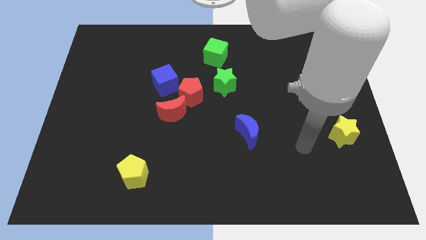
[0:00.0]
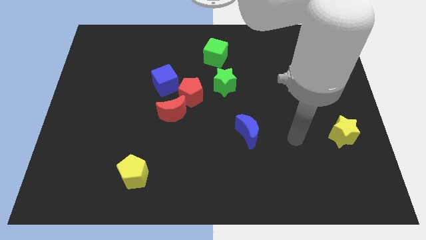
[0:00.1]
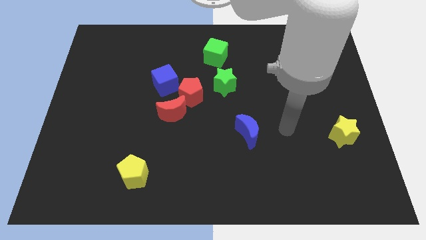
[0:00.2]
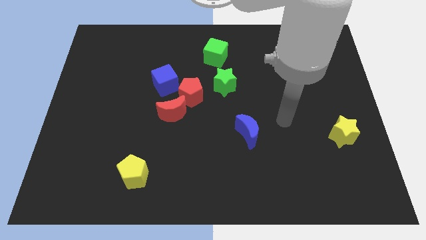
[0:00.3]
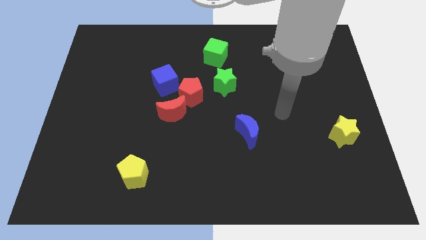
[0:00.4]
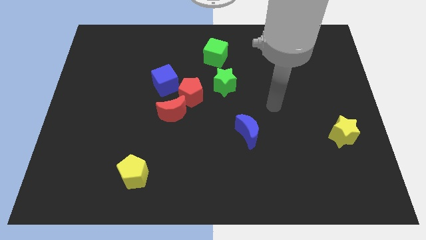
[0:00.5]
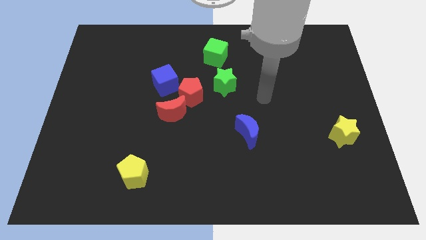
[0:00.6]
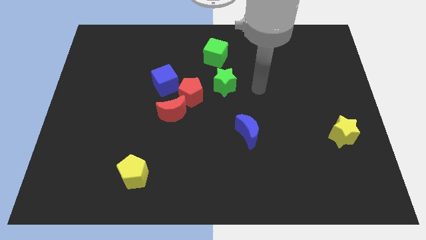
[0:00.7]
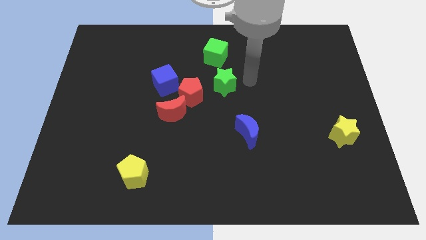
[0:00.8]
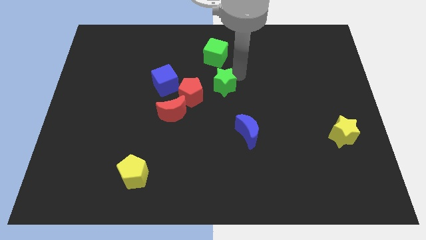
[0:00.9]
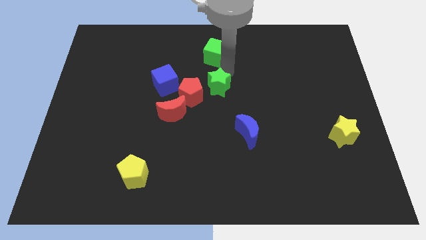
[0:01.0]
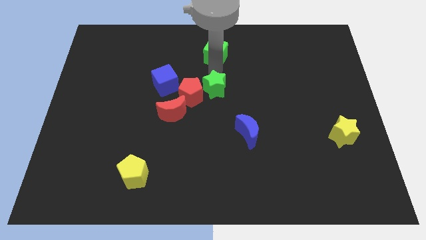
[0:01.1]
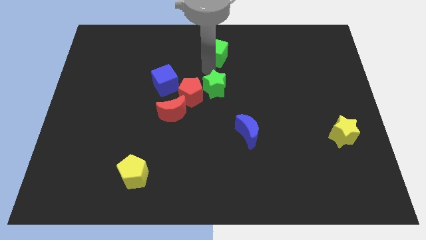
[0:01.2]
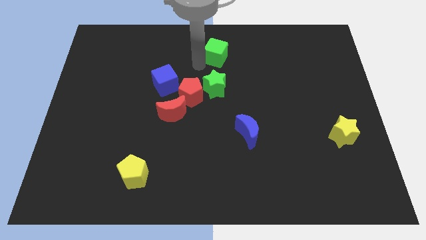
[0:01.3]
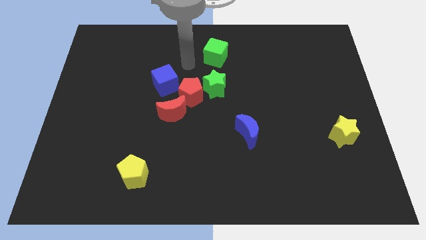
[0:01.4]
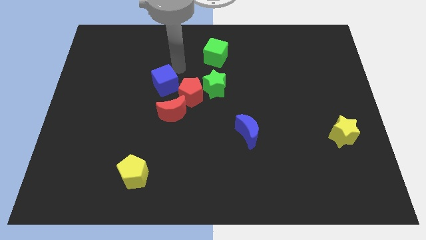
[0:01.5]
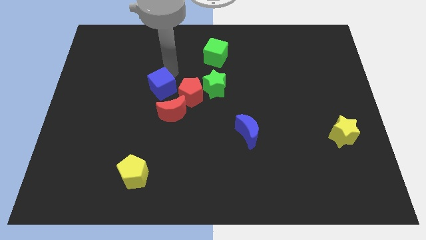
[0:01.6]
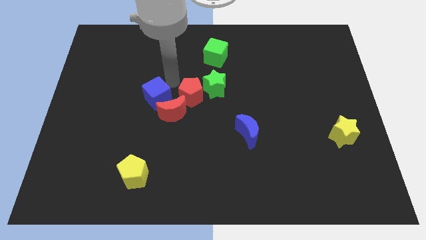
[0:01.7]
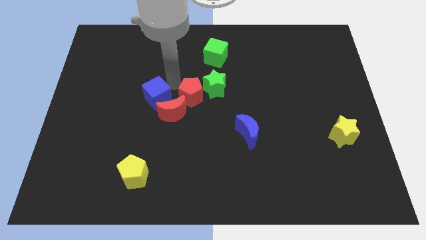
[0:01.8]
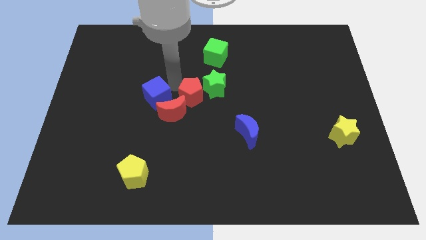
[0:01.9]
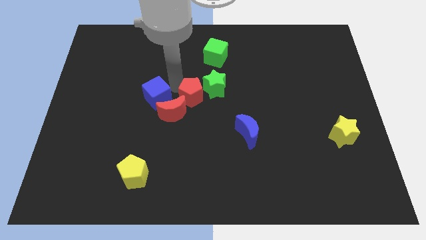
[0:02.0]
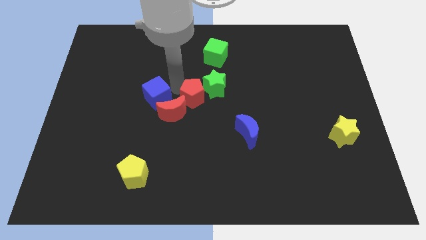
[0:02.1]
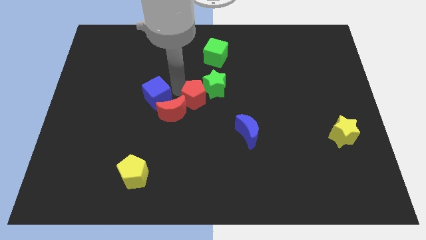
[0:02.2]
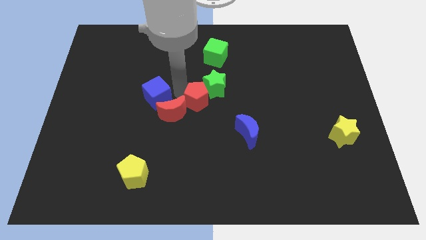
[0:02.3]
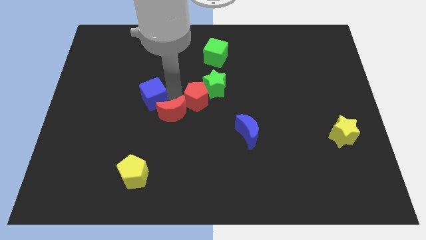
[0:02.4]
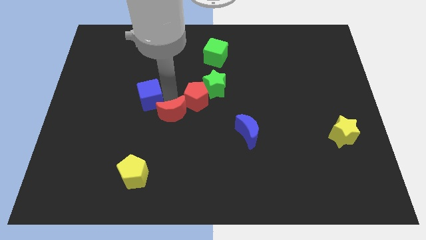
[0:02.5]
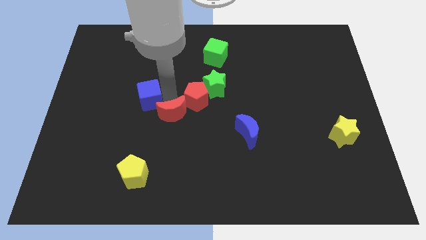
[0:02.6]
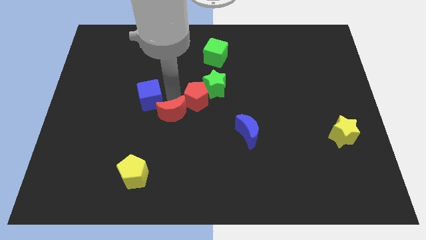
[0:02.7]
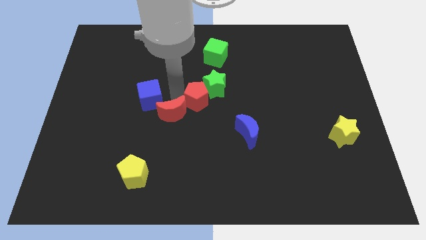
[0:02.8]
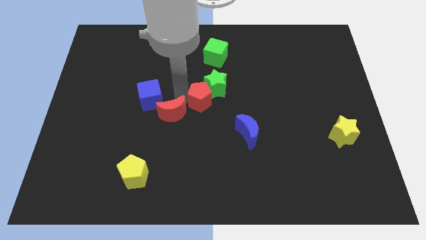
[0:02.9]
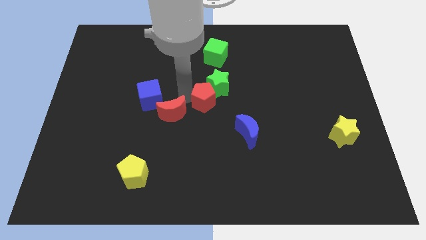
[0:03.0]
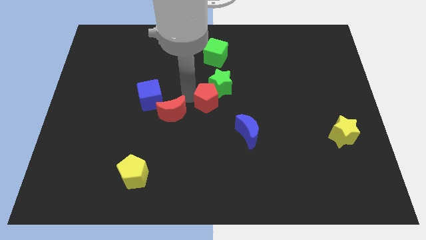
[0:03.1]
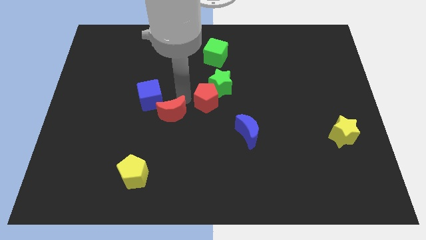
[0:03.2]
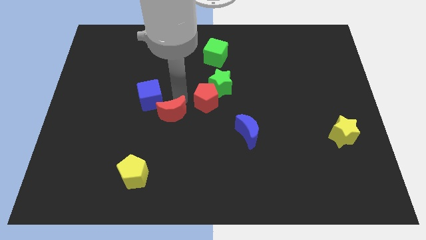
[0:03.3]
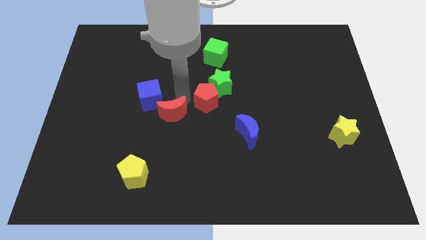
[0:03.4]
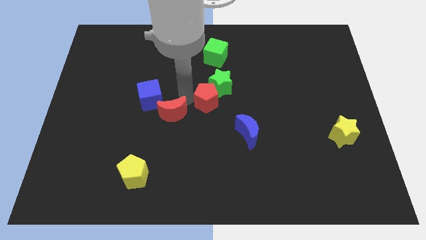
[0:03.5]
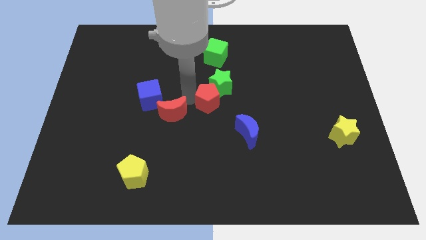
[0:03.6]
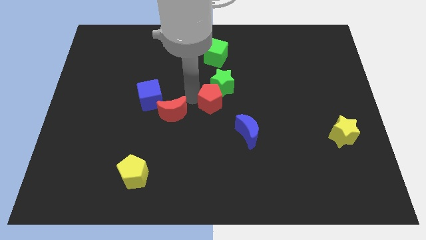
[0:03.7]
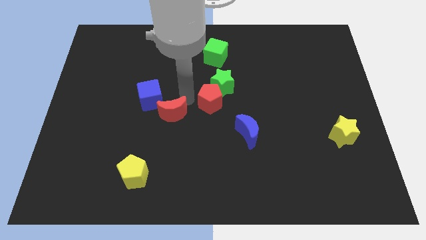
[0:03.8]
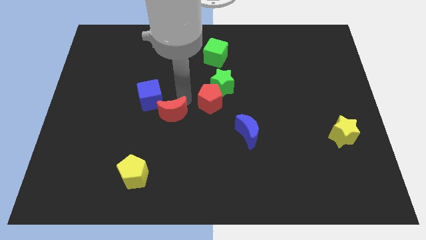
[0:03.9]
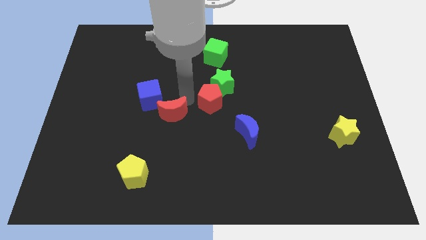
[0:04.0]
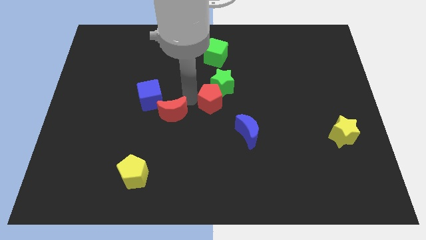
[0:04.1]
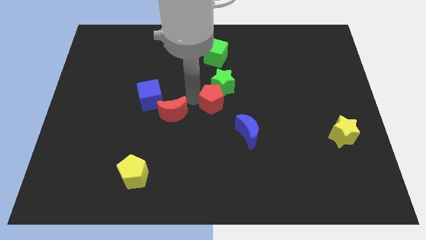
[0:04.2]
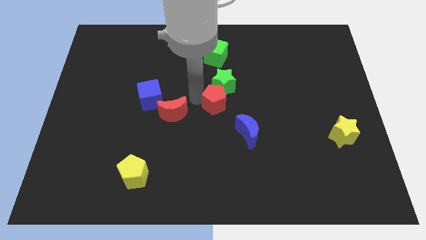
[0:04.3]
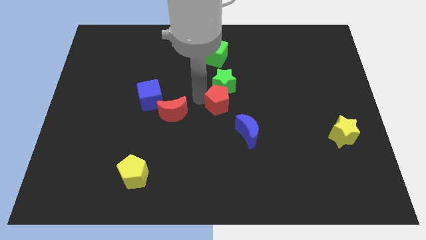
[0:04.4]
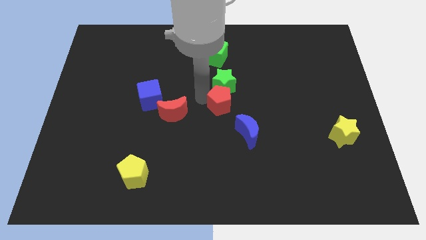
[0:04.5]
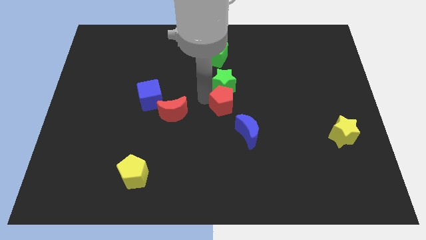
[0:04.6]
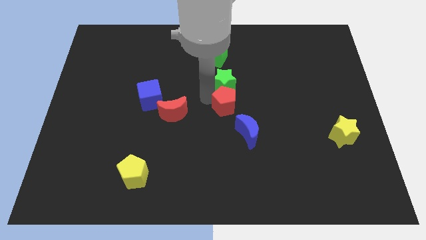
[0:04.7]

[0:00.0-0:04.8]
move the red pentagon away from the red moon, blue cube, and green star

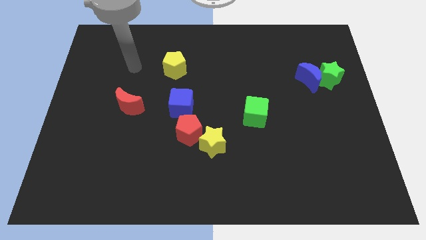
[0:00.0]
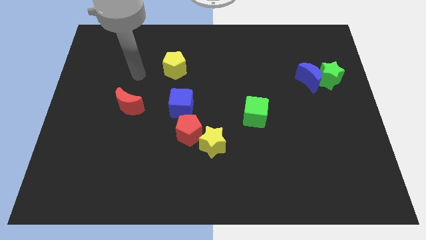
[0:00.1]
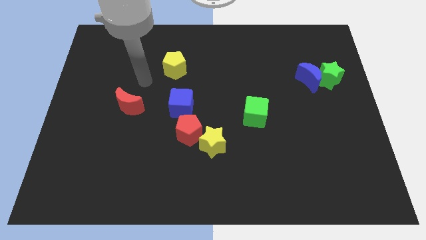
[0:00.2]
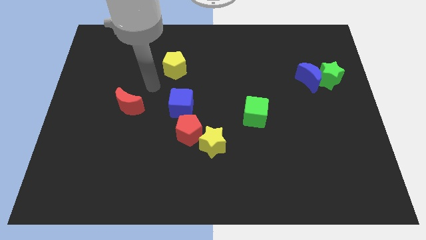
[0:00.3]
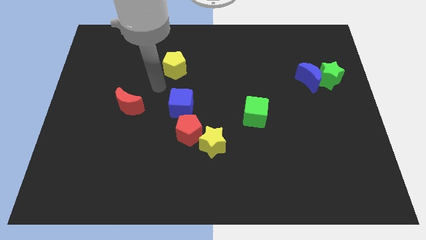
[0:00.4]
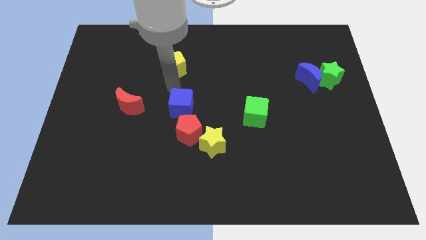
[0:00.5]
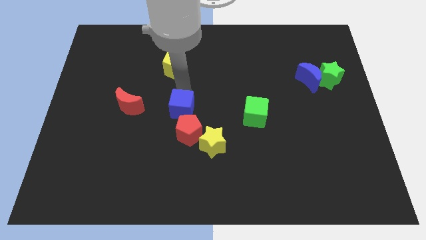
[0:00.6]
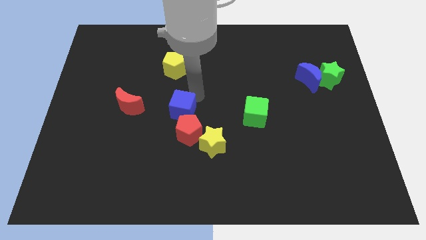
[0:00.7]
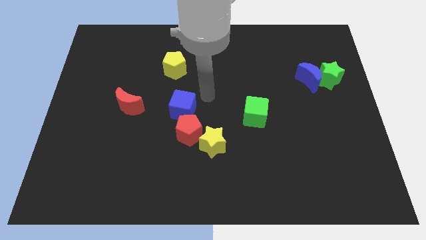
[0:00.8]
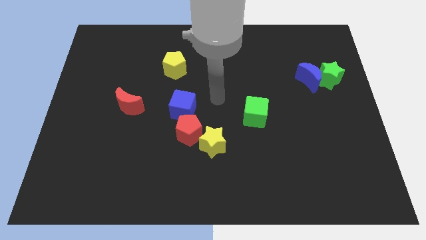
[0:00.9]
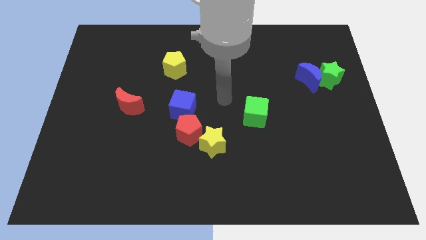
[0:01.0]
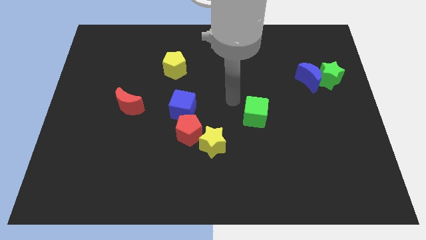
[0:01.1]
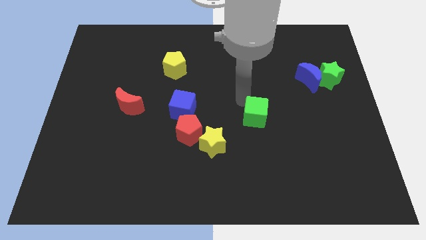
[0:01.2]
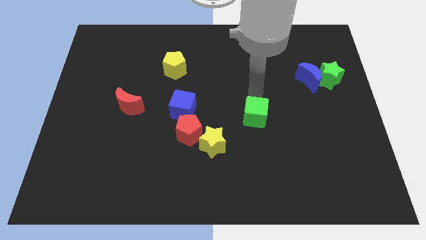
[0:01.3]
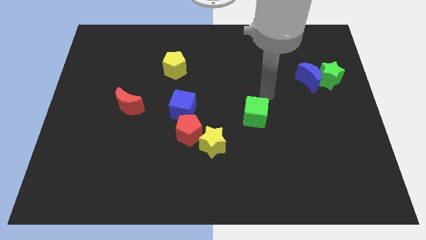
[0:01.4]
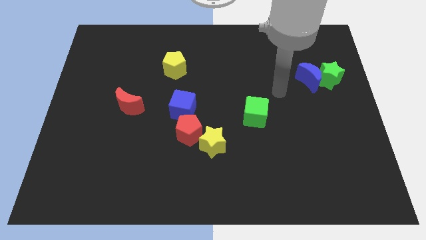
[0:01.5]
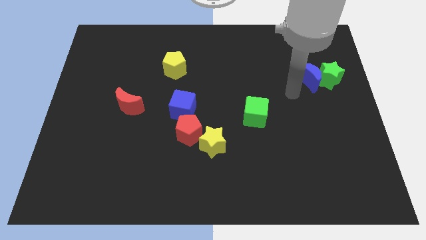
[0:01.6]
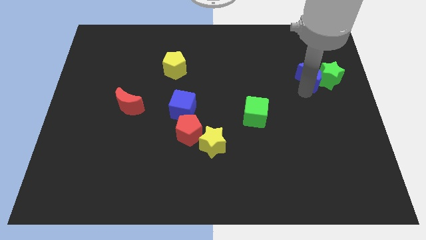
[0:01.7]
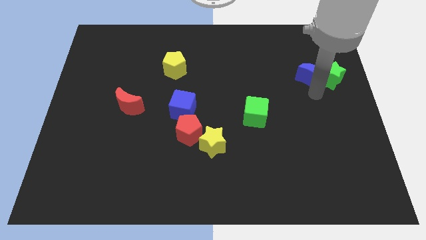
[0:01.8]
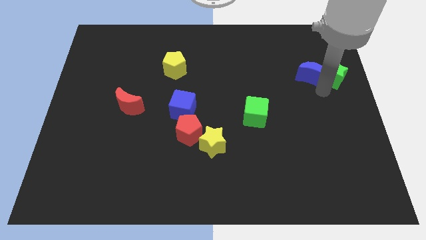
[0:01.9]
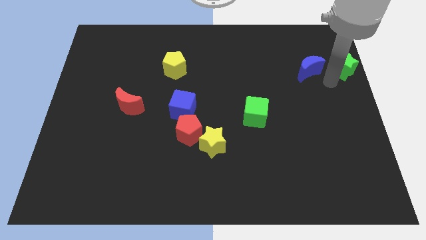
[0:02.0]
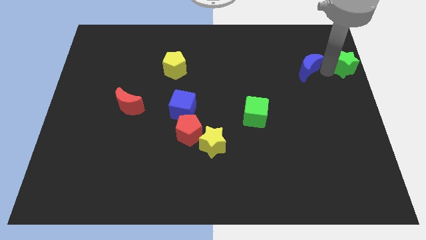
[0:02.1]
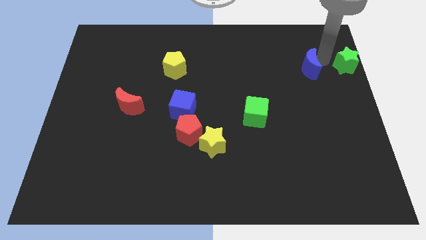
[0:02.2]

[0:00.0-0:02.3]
pull the blue moon apart from the green star

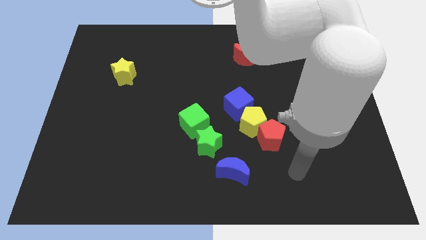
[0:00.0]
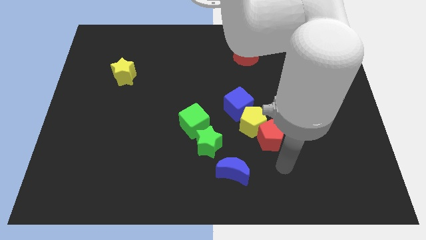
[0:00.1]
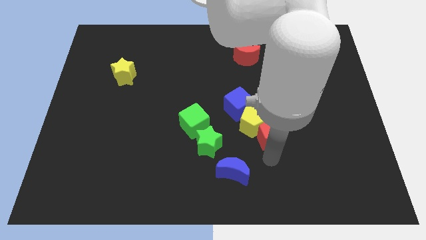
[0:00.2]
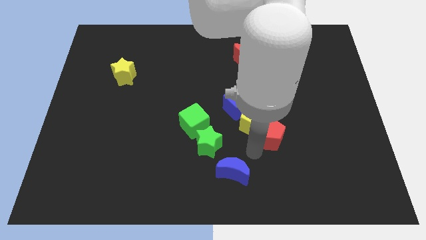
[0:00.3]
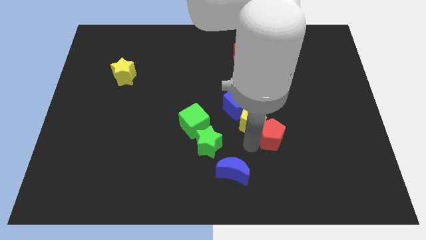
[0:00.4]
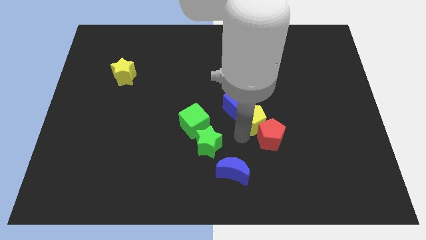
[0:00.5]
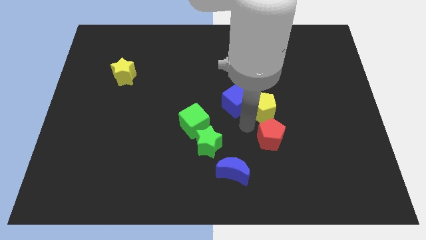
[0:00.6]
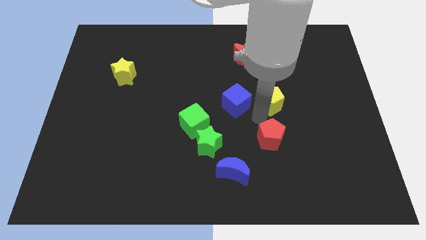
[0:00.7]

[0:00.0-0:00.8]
separate the red pentagon from the yellow pentagon

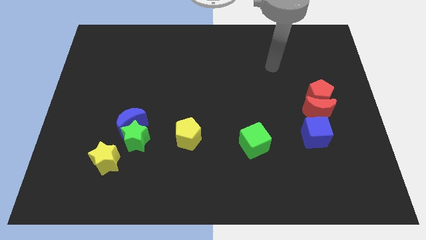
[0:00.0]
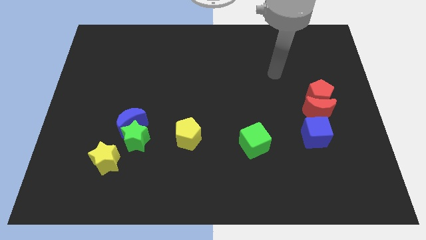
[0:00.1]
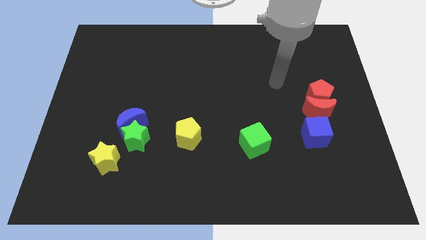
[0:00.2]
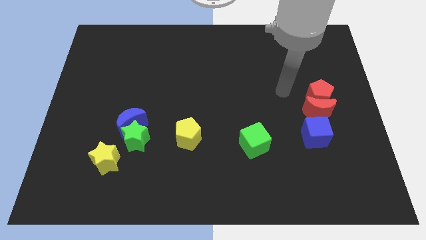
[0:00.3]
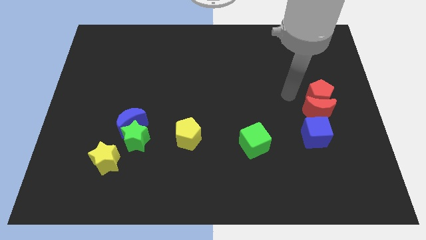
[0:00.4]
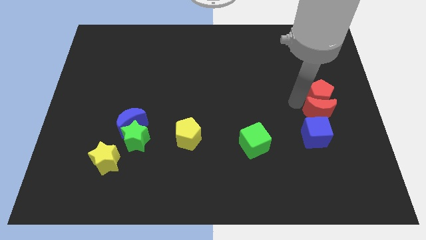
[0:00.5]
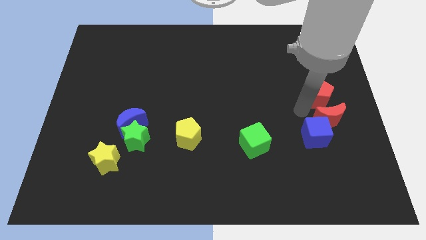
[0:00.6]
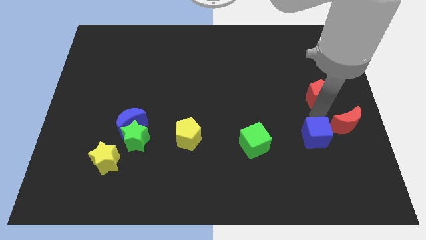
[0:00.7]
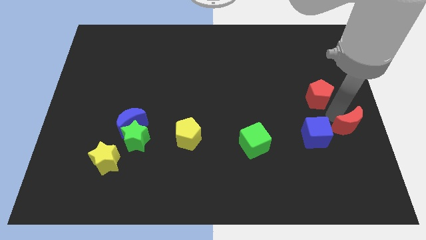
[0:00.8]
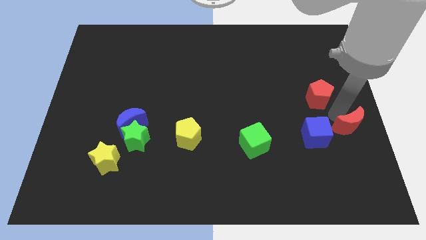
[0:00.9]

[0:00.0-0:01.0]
separate the red pentagon from the red moon

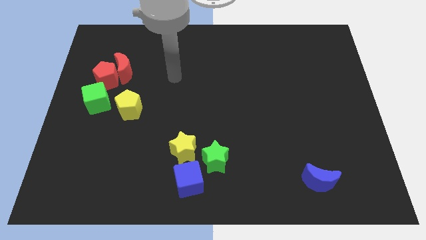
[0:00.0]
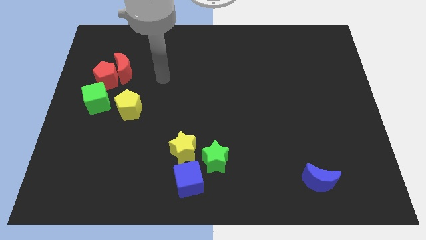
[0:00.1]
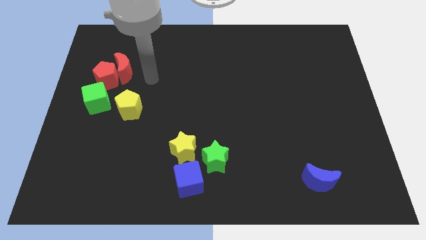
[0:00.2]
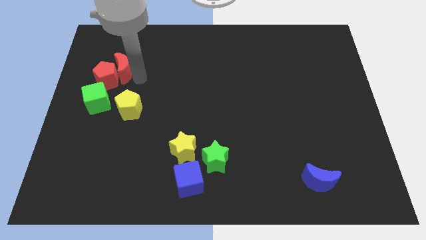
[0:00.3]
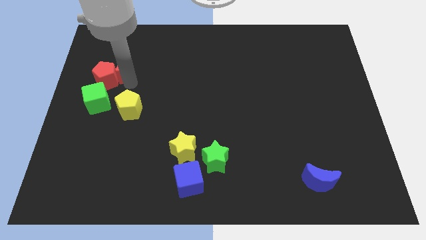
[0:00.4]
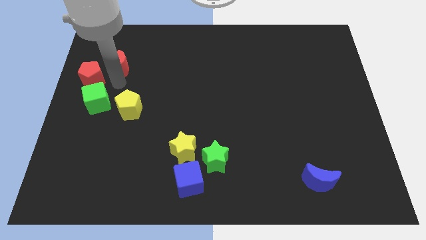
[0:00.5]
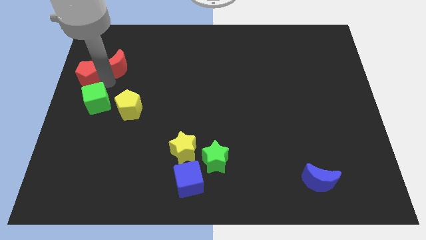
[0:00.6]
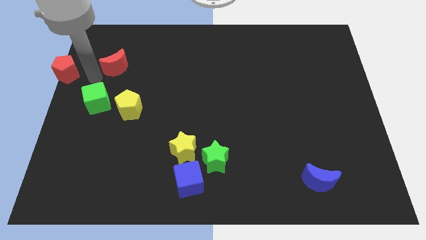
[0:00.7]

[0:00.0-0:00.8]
separate the red moon from the red pentagon
